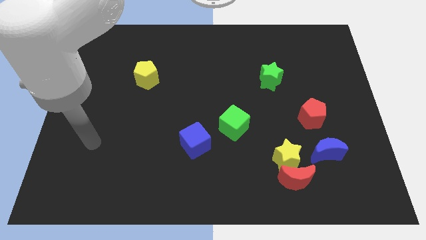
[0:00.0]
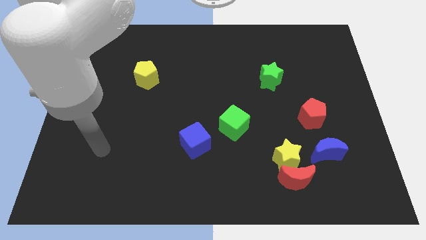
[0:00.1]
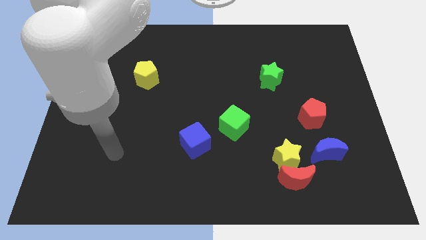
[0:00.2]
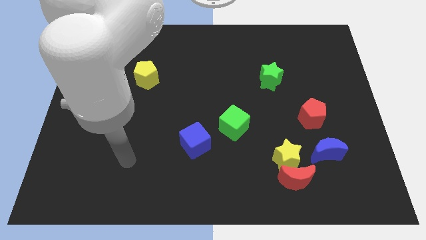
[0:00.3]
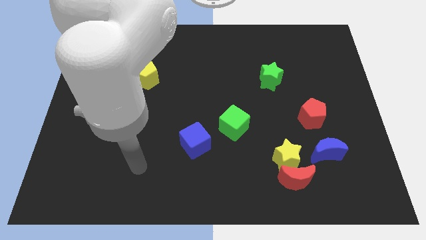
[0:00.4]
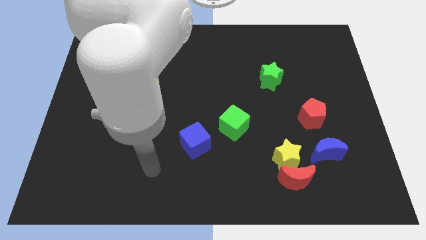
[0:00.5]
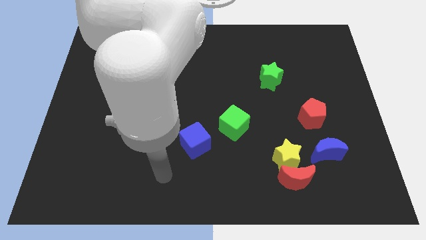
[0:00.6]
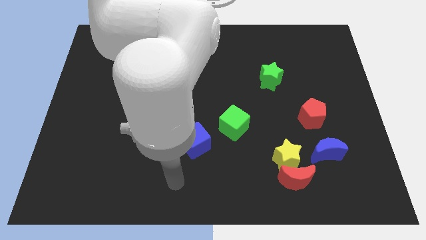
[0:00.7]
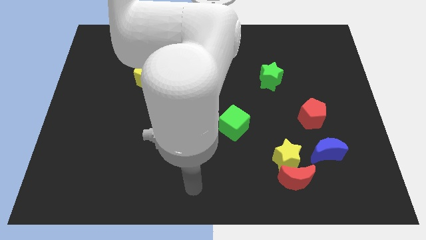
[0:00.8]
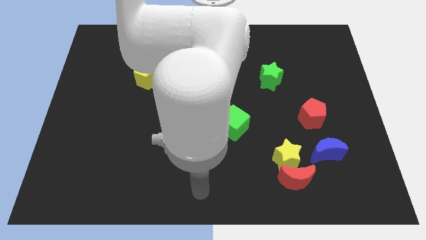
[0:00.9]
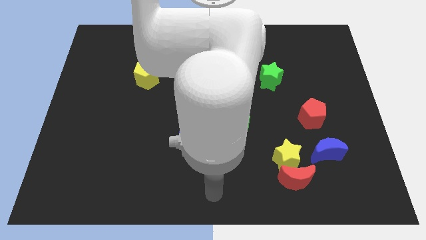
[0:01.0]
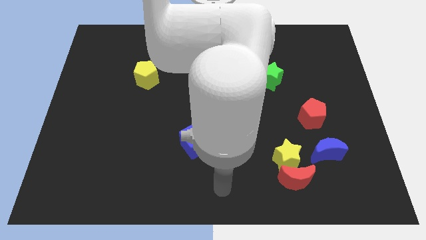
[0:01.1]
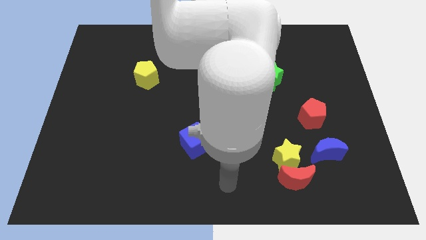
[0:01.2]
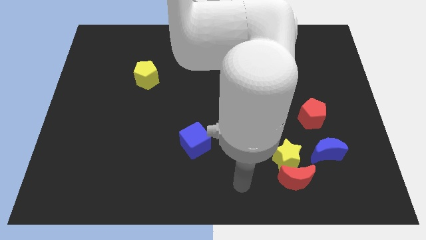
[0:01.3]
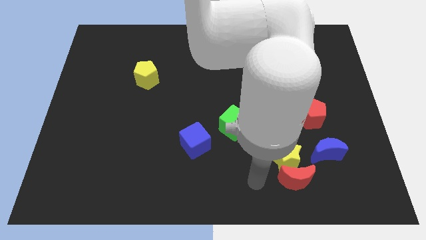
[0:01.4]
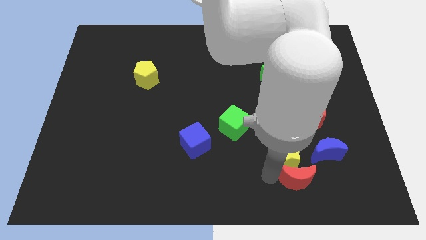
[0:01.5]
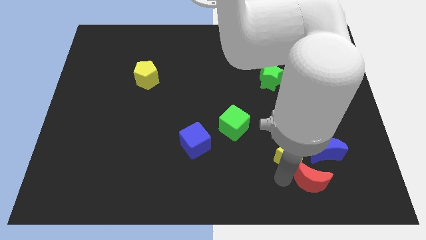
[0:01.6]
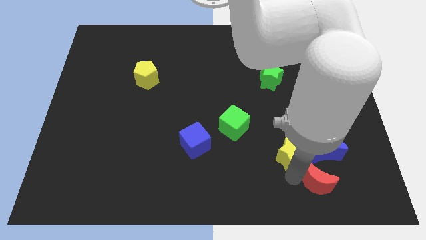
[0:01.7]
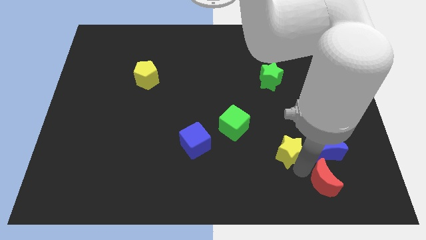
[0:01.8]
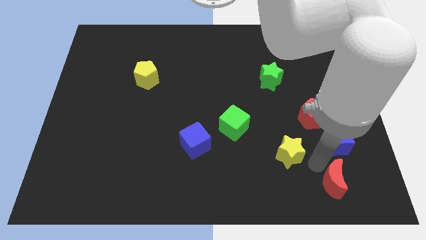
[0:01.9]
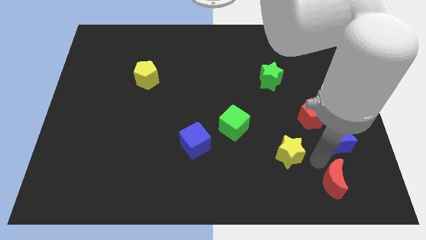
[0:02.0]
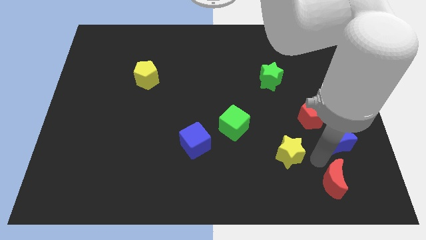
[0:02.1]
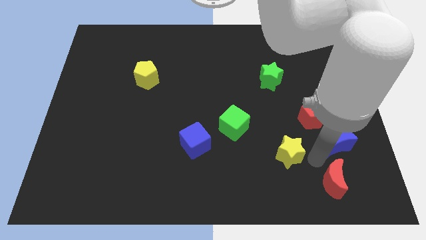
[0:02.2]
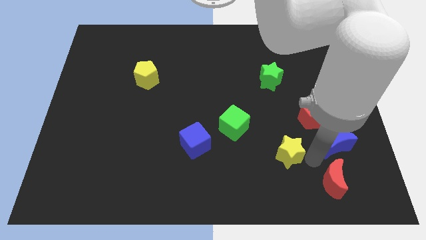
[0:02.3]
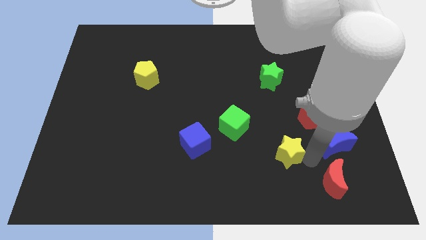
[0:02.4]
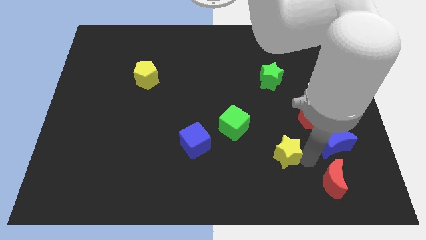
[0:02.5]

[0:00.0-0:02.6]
move the yellow star away from the red moon and blue moon

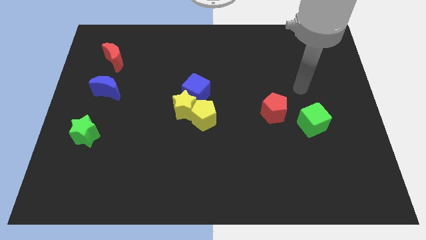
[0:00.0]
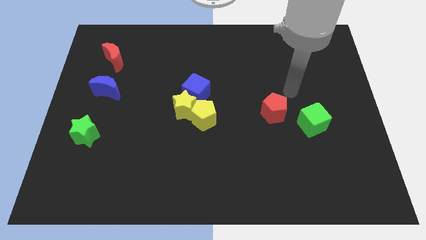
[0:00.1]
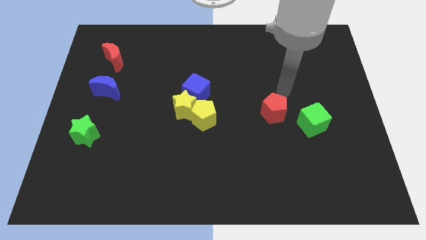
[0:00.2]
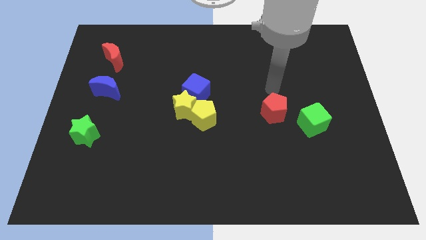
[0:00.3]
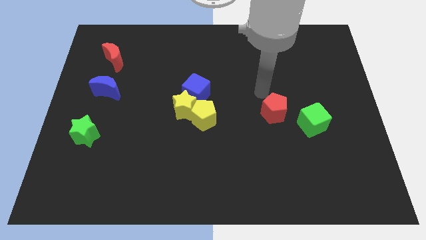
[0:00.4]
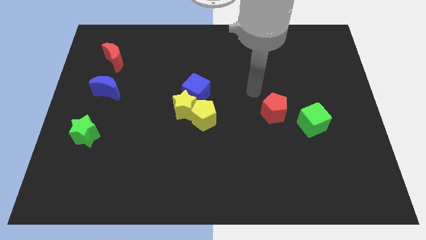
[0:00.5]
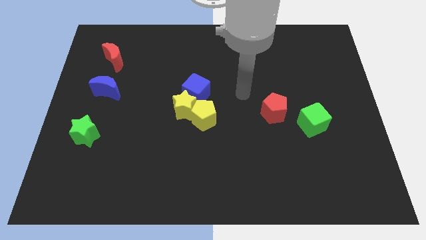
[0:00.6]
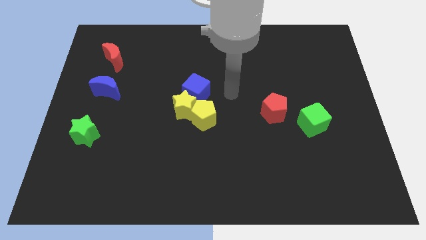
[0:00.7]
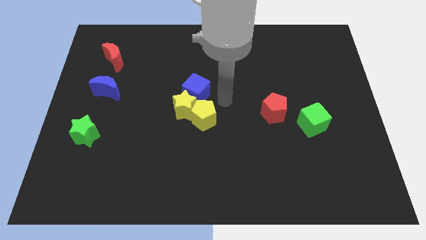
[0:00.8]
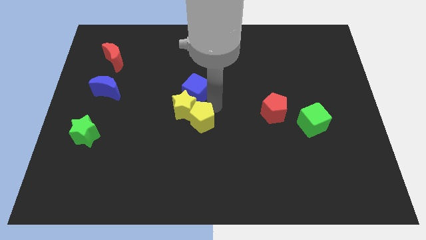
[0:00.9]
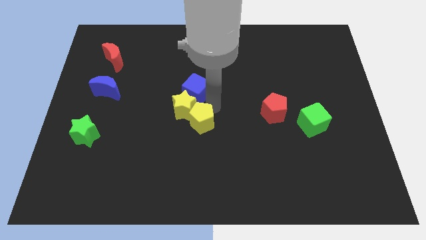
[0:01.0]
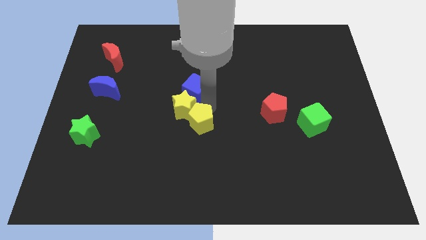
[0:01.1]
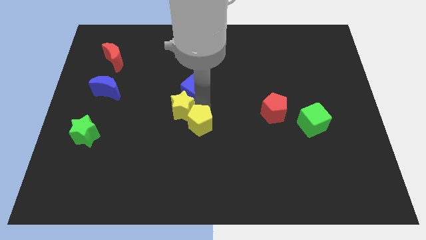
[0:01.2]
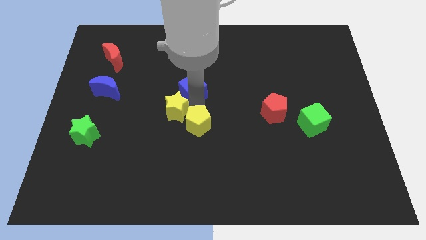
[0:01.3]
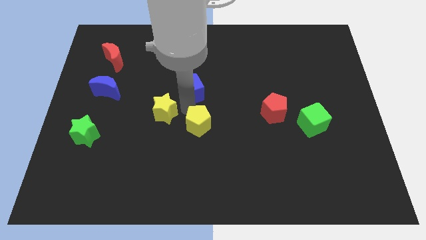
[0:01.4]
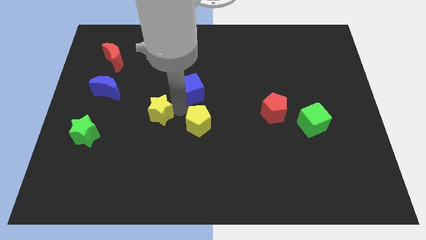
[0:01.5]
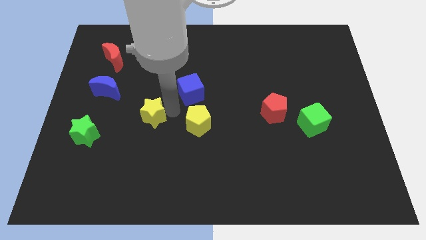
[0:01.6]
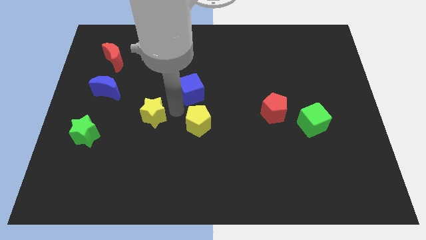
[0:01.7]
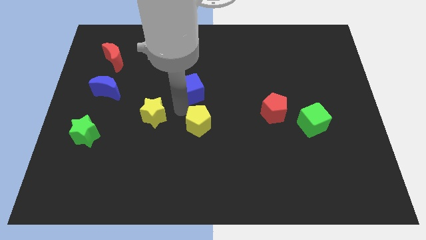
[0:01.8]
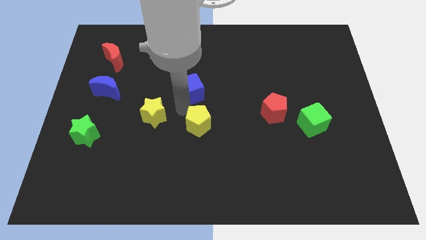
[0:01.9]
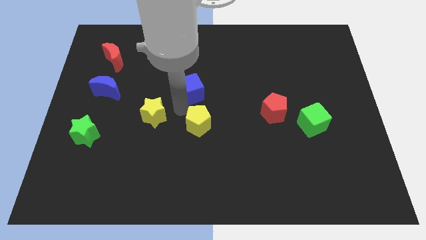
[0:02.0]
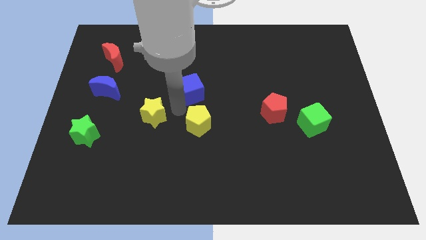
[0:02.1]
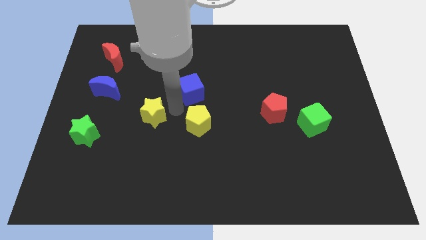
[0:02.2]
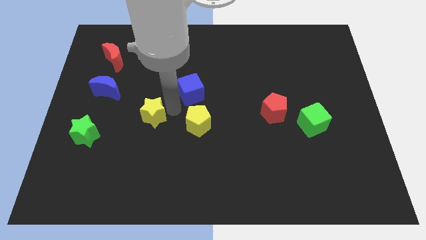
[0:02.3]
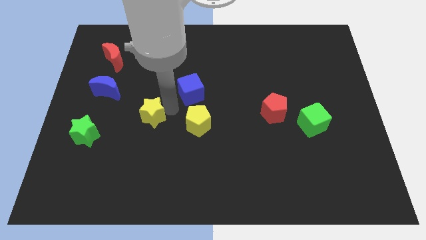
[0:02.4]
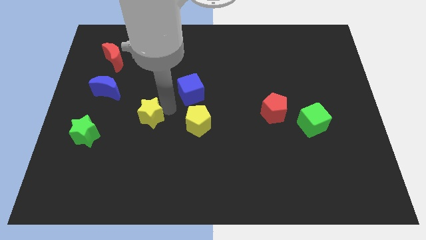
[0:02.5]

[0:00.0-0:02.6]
separate the yellow star from the yellow pentagon and blue cube

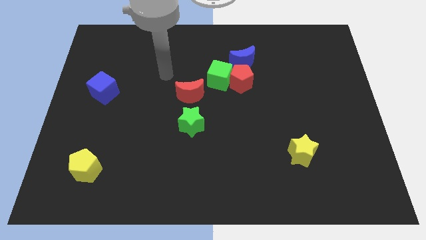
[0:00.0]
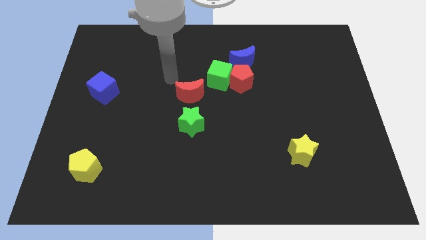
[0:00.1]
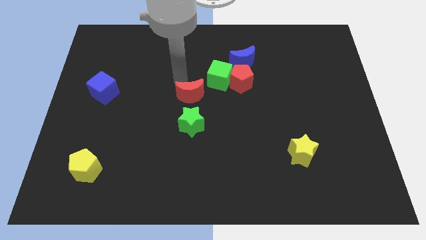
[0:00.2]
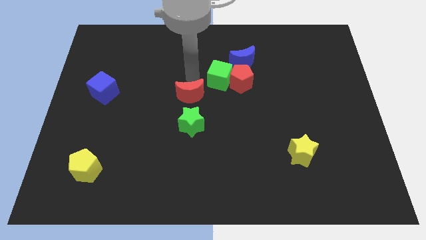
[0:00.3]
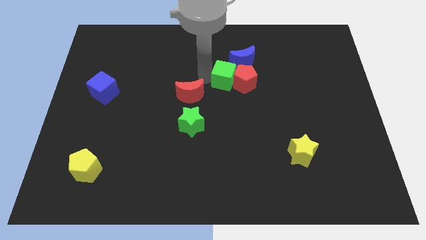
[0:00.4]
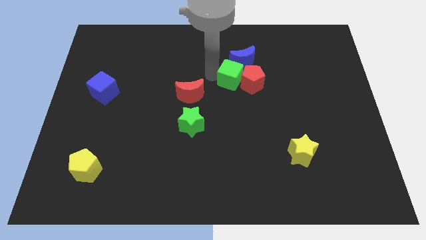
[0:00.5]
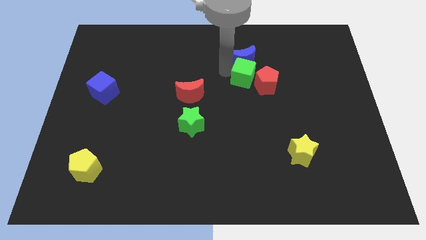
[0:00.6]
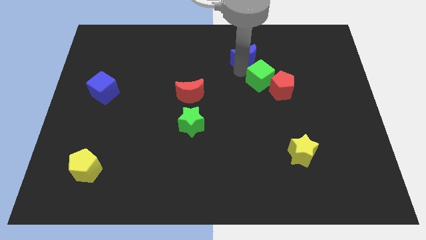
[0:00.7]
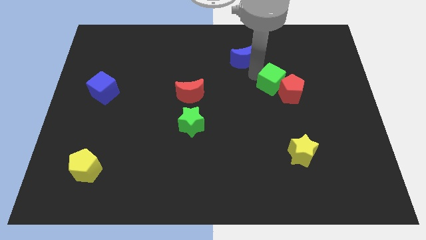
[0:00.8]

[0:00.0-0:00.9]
move the red pentagon away from the green cube and blue moon

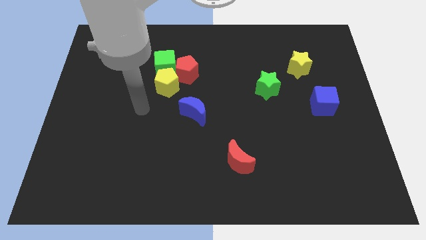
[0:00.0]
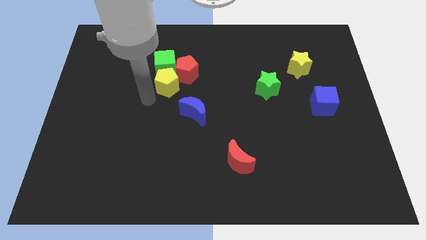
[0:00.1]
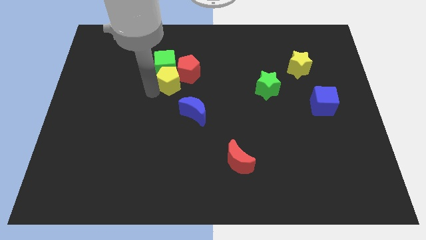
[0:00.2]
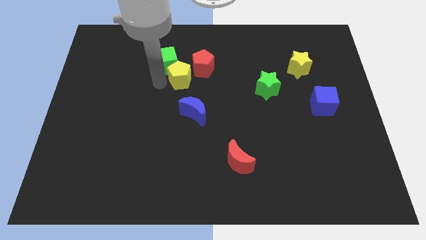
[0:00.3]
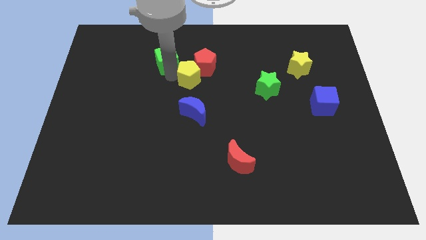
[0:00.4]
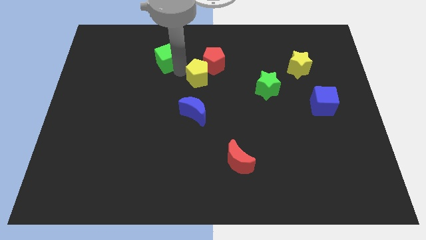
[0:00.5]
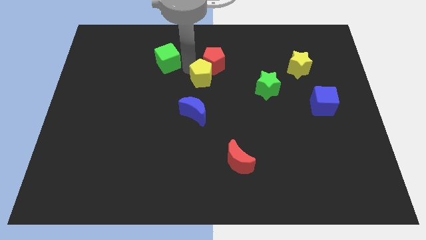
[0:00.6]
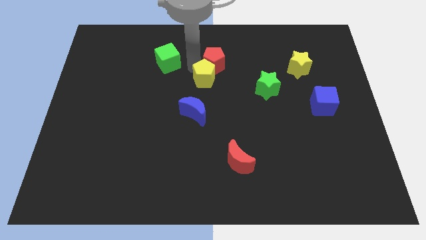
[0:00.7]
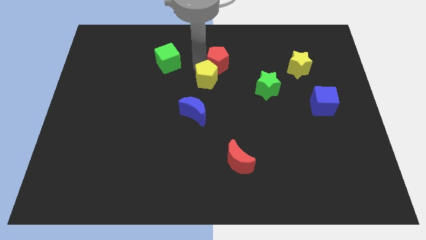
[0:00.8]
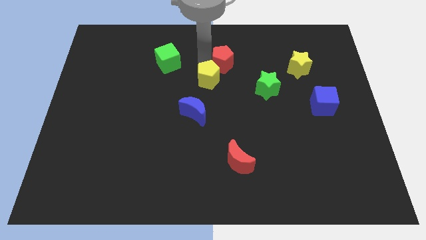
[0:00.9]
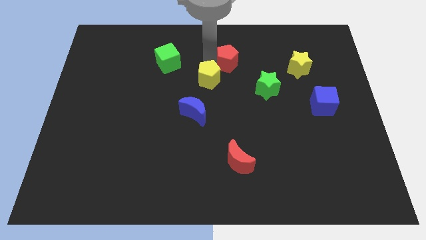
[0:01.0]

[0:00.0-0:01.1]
separate the red pentagon from the green cube and yellow pentagon

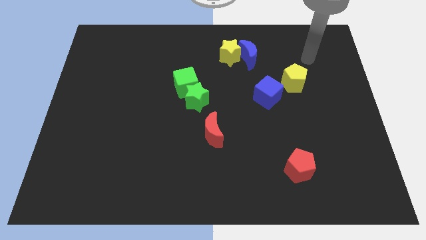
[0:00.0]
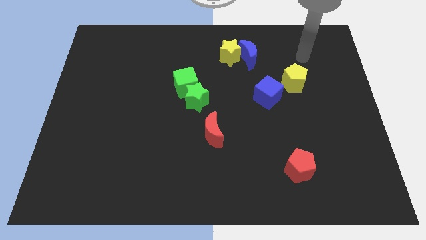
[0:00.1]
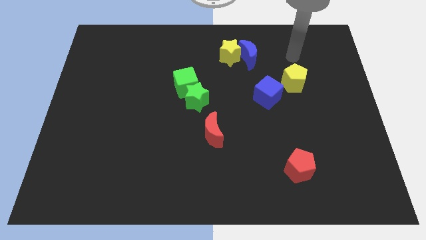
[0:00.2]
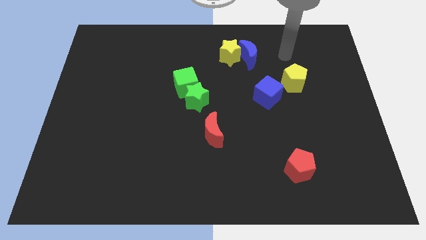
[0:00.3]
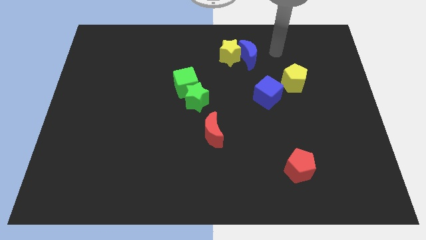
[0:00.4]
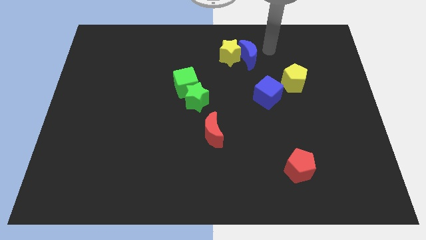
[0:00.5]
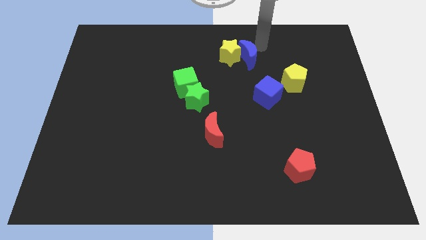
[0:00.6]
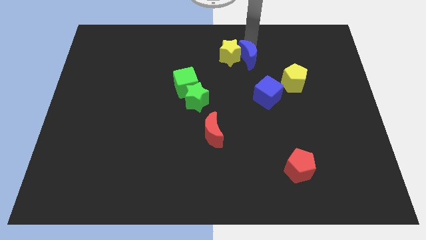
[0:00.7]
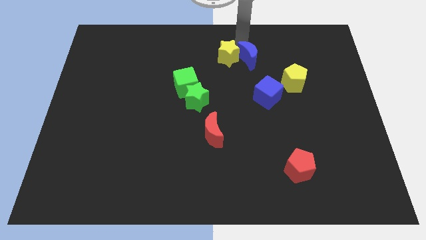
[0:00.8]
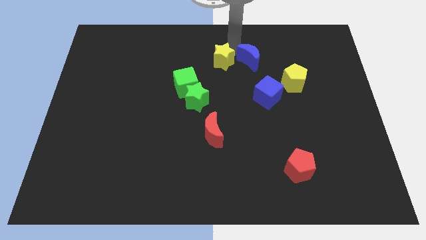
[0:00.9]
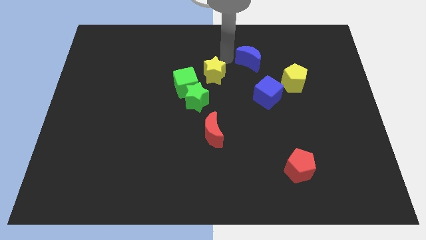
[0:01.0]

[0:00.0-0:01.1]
pull the blue moon apart from the yellow star

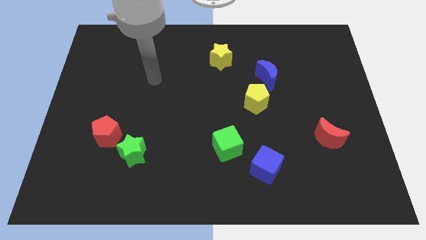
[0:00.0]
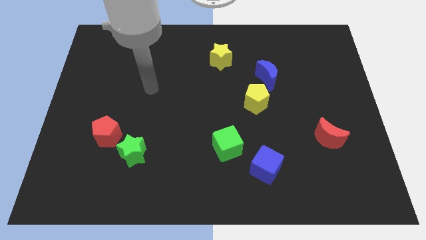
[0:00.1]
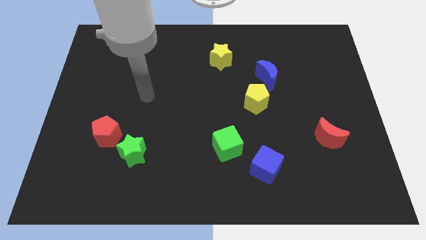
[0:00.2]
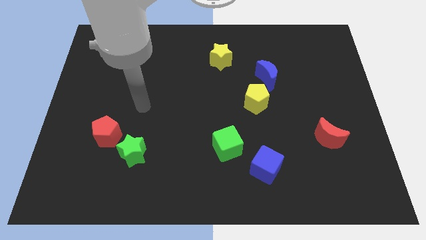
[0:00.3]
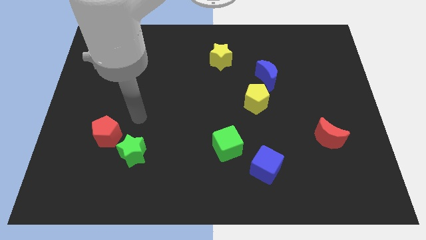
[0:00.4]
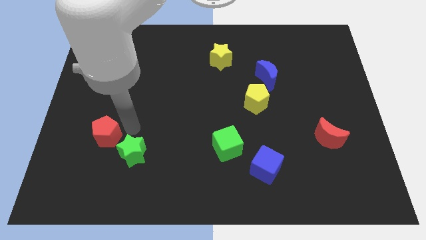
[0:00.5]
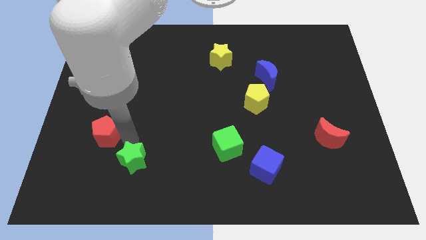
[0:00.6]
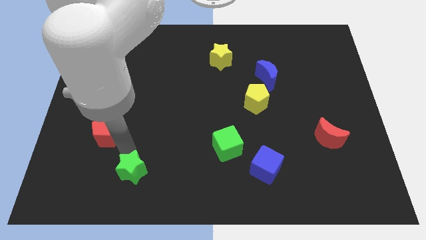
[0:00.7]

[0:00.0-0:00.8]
move the red pentagon away from the green star

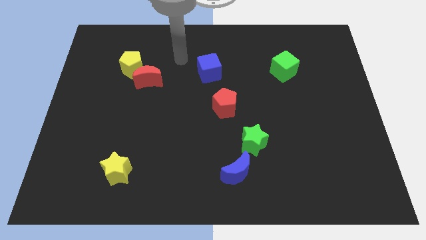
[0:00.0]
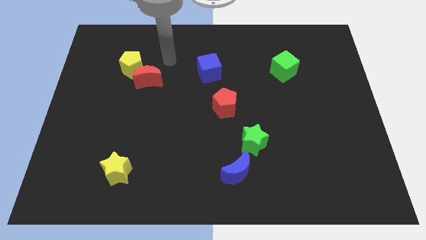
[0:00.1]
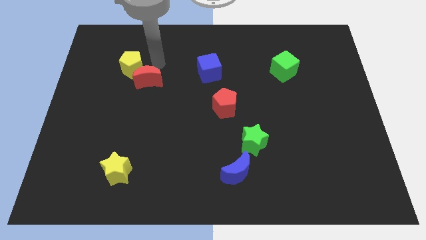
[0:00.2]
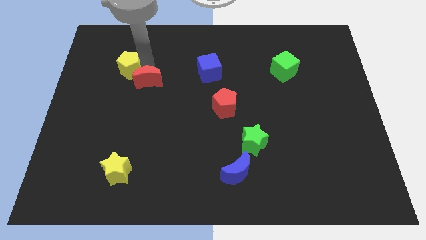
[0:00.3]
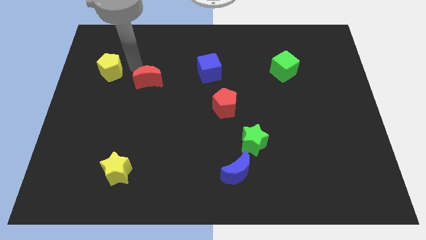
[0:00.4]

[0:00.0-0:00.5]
pull the red moon apart from the yellow pentagon
